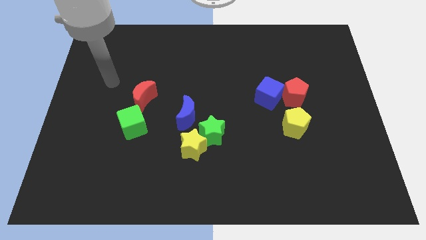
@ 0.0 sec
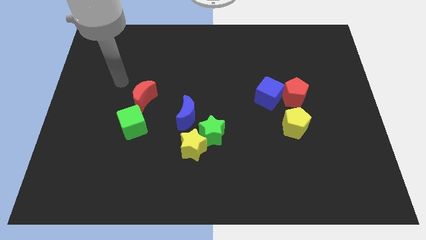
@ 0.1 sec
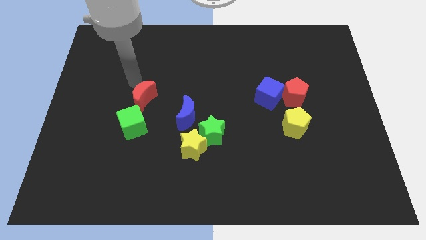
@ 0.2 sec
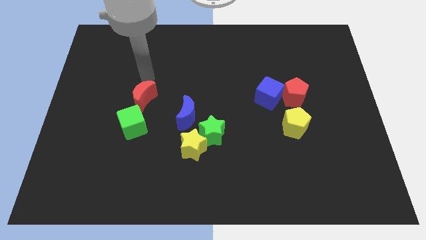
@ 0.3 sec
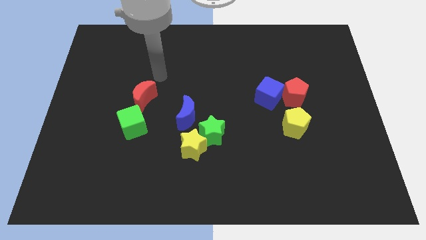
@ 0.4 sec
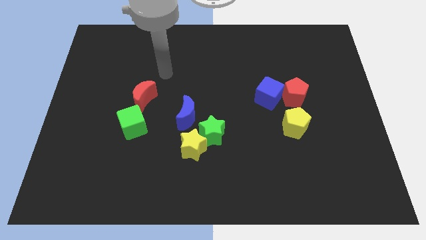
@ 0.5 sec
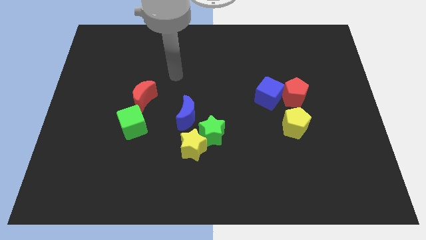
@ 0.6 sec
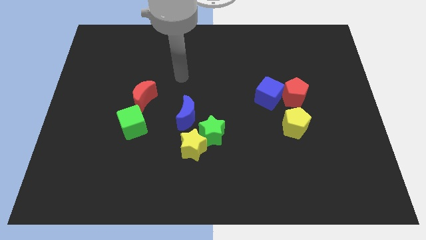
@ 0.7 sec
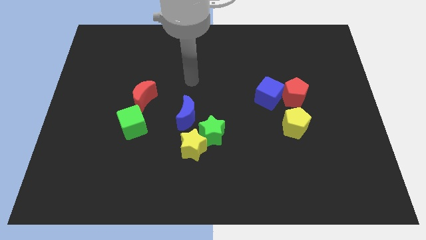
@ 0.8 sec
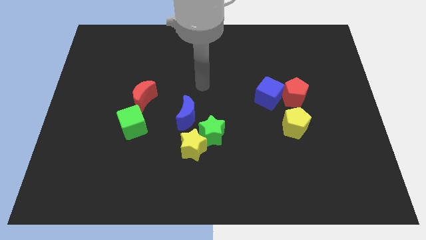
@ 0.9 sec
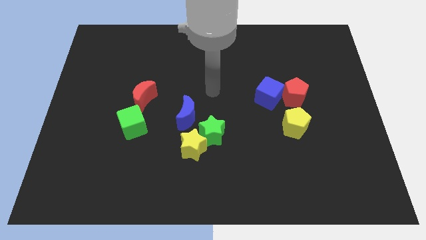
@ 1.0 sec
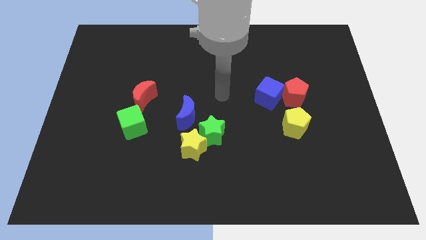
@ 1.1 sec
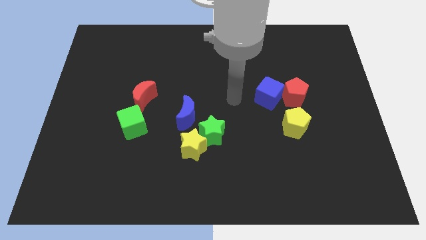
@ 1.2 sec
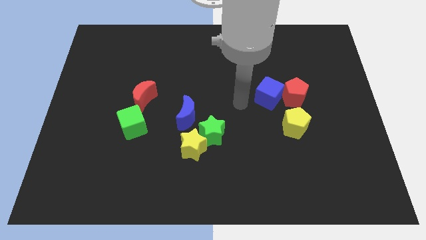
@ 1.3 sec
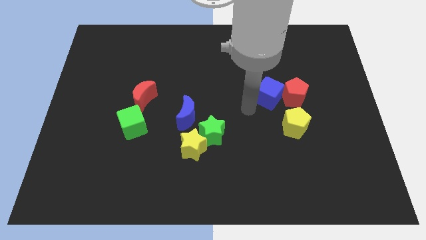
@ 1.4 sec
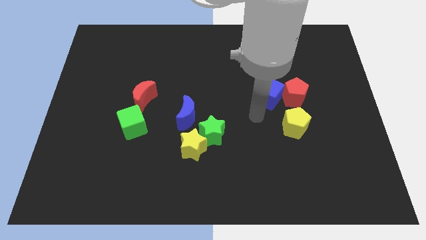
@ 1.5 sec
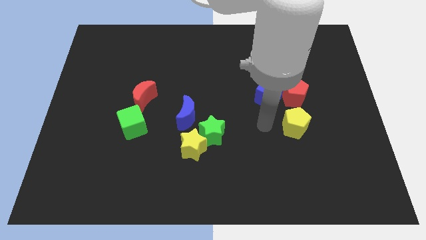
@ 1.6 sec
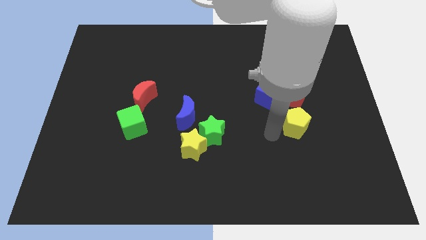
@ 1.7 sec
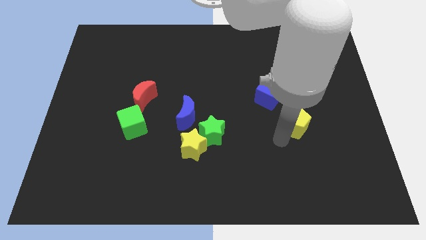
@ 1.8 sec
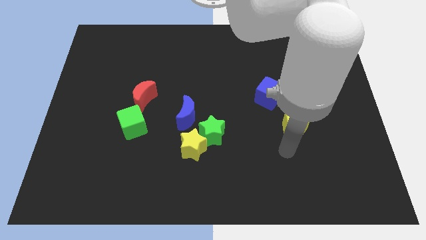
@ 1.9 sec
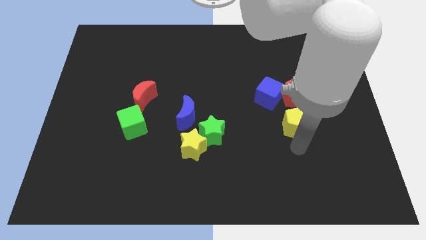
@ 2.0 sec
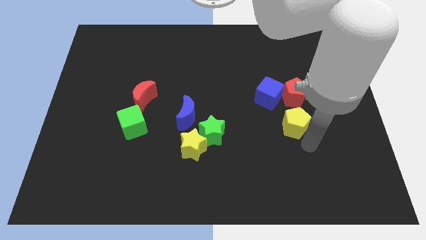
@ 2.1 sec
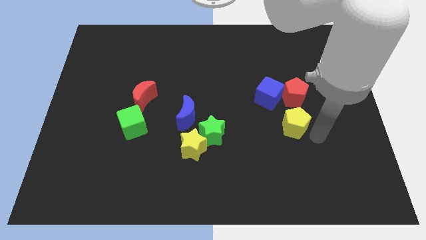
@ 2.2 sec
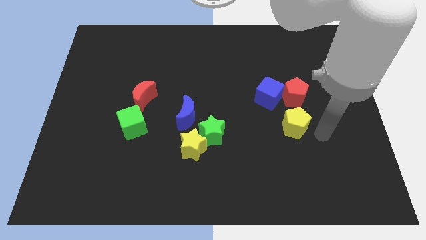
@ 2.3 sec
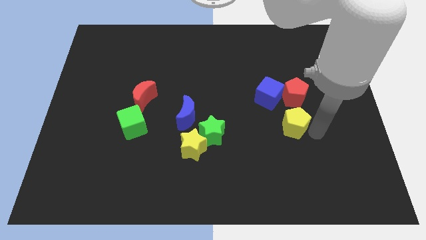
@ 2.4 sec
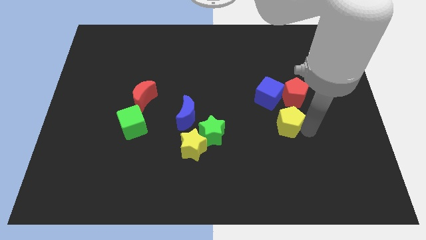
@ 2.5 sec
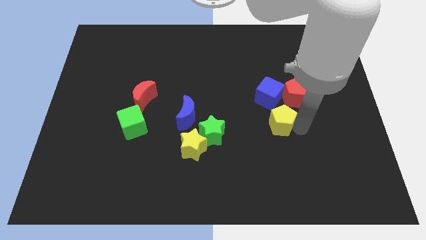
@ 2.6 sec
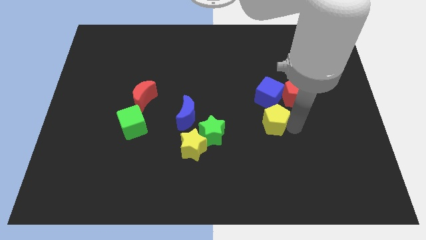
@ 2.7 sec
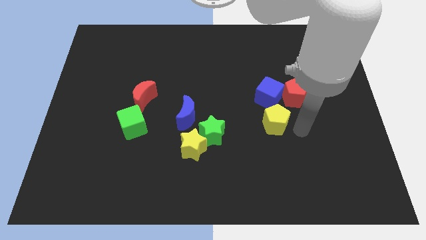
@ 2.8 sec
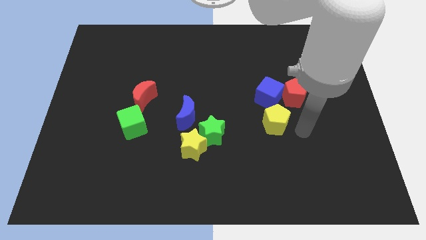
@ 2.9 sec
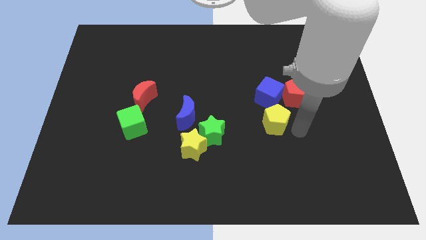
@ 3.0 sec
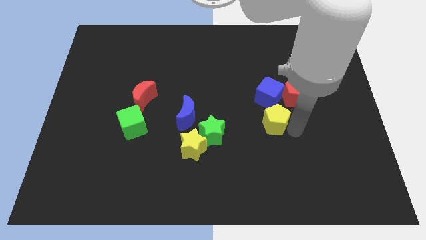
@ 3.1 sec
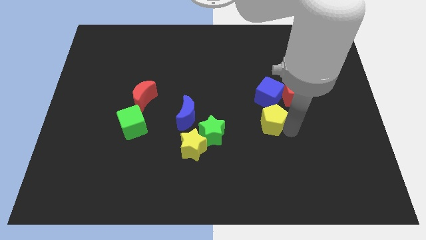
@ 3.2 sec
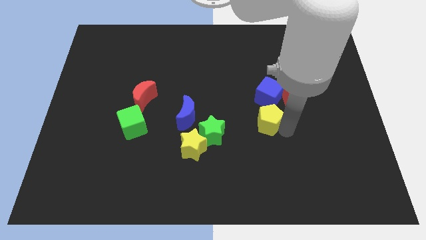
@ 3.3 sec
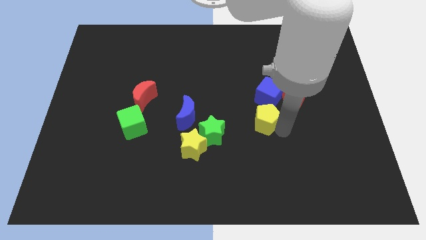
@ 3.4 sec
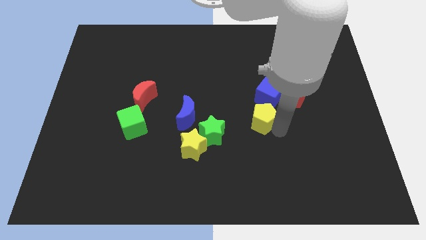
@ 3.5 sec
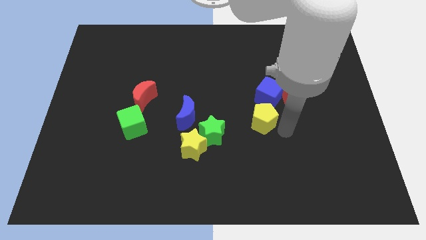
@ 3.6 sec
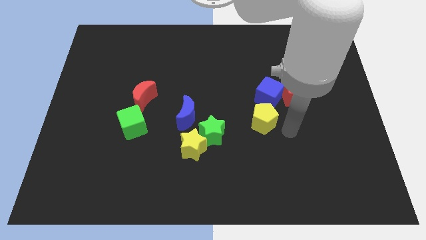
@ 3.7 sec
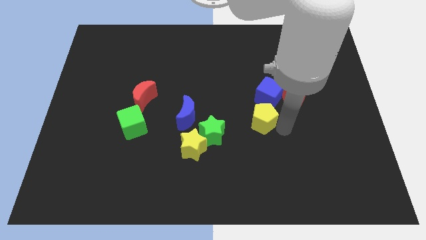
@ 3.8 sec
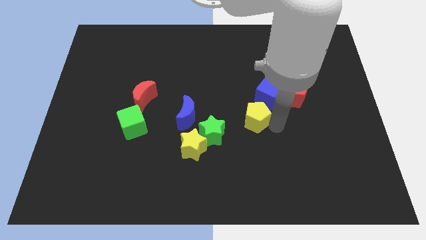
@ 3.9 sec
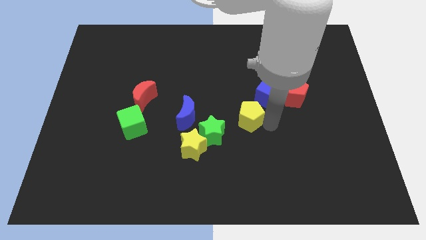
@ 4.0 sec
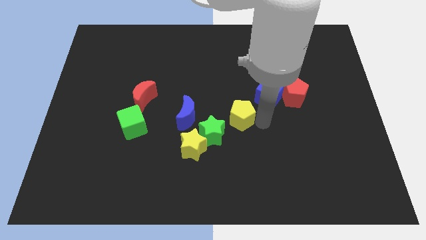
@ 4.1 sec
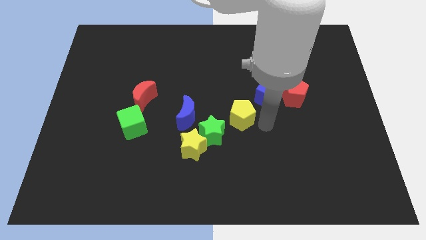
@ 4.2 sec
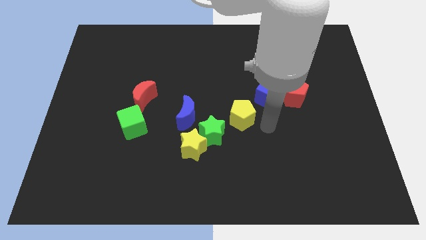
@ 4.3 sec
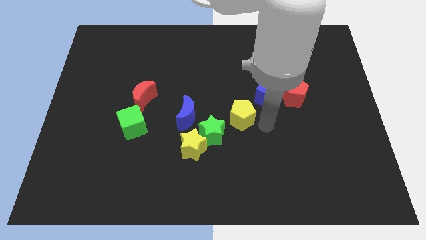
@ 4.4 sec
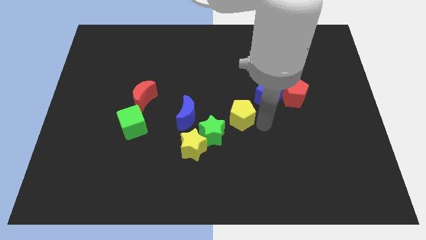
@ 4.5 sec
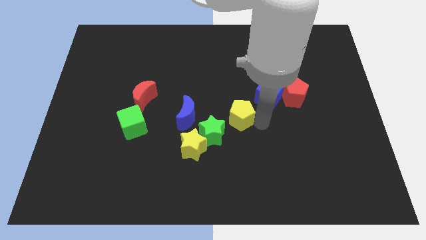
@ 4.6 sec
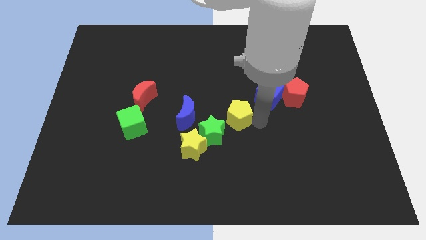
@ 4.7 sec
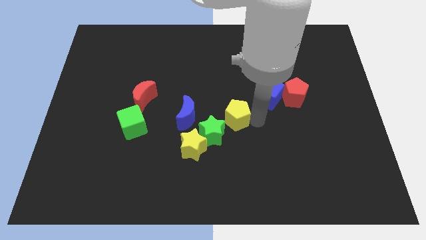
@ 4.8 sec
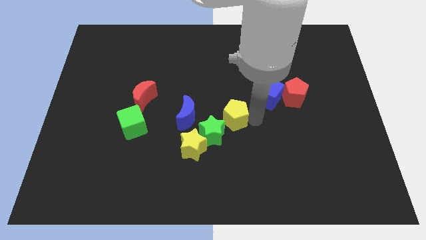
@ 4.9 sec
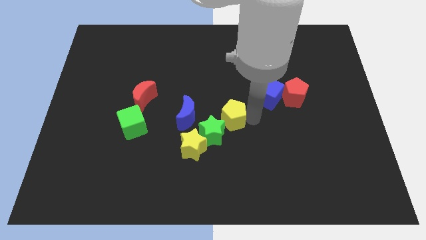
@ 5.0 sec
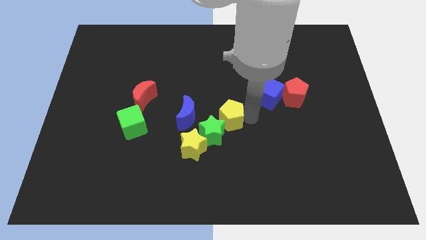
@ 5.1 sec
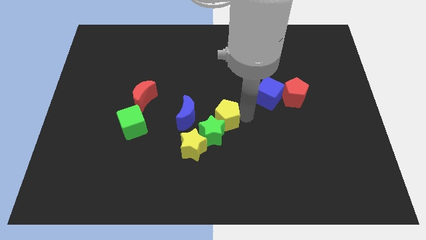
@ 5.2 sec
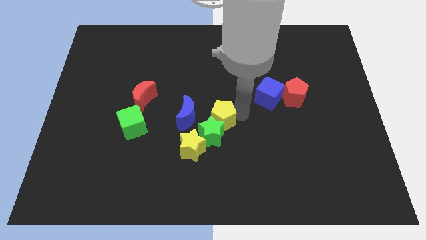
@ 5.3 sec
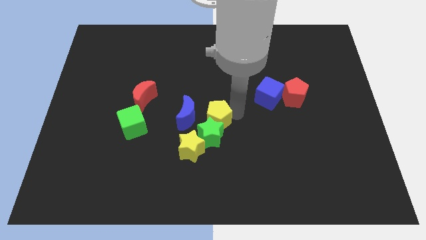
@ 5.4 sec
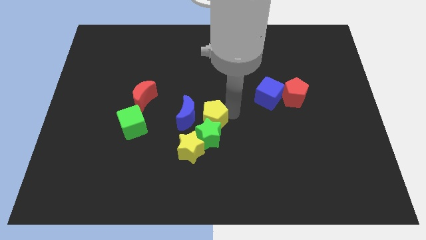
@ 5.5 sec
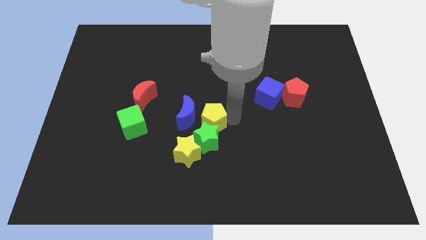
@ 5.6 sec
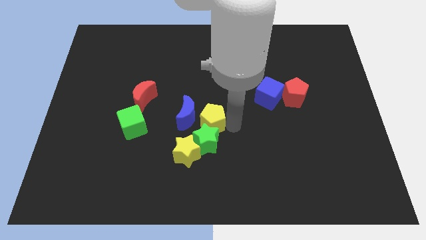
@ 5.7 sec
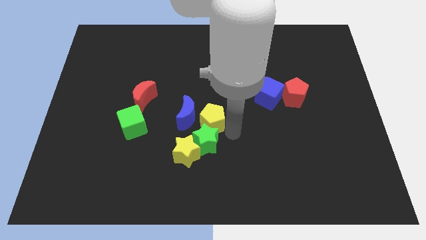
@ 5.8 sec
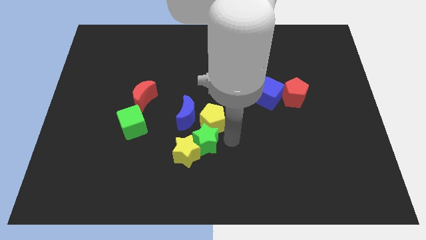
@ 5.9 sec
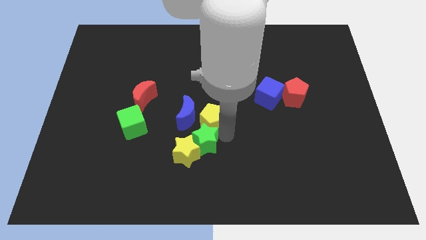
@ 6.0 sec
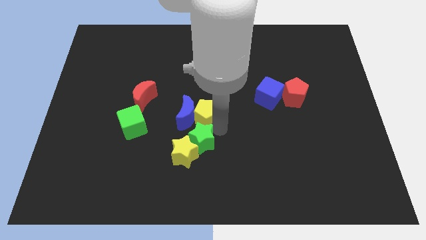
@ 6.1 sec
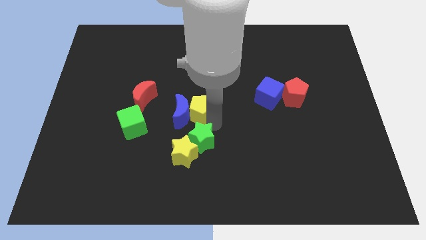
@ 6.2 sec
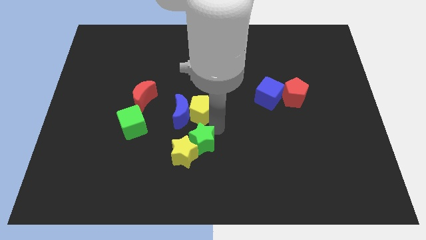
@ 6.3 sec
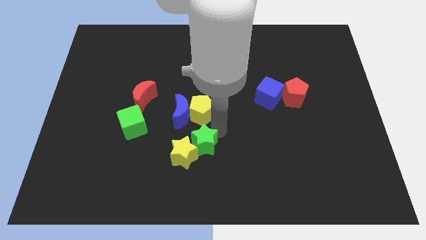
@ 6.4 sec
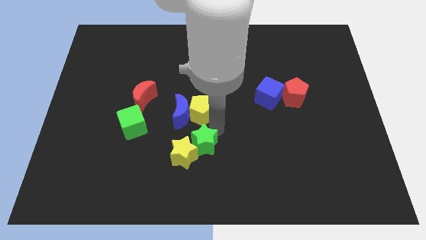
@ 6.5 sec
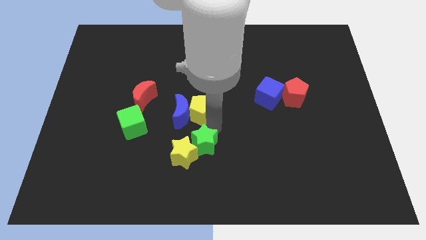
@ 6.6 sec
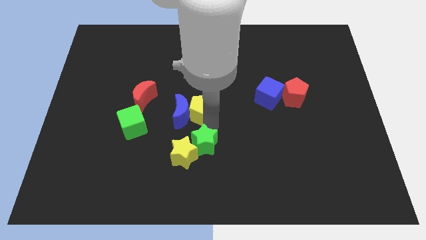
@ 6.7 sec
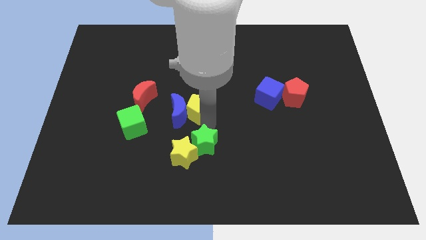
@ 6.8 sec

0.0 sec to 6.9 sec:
slide the yellow pentagon to the right of the red moon

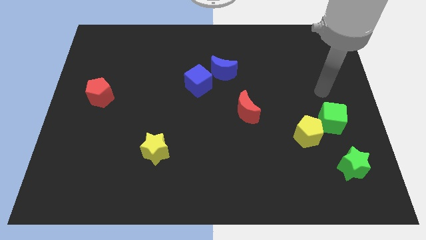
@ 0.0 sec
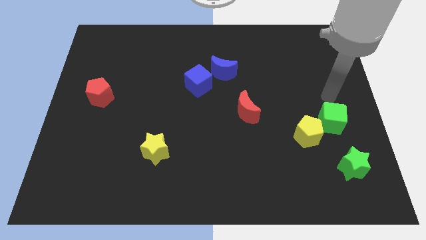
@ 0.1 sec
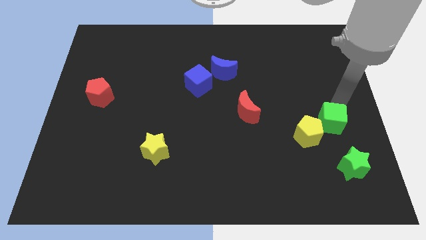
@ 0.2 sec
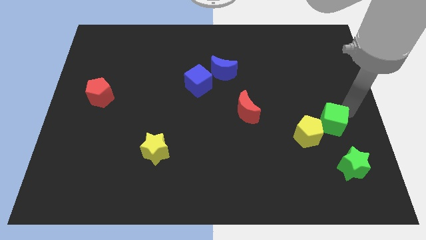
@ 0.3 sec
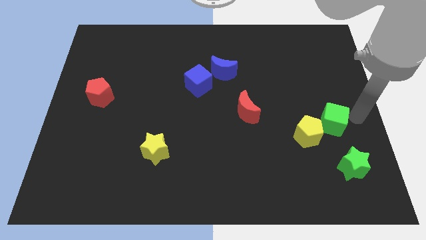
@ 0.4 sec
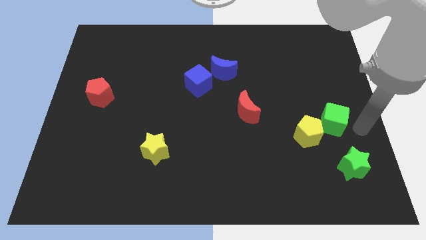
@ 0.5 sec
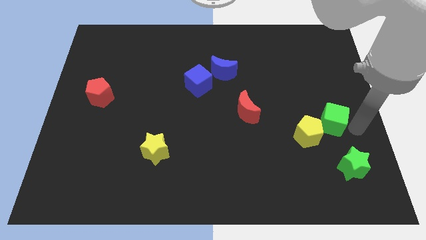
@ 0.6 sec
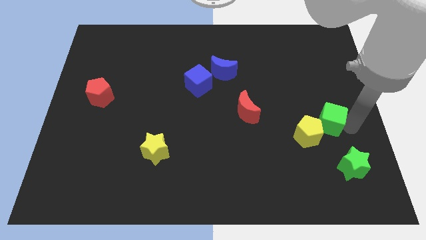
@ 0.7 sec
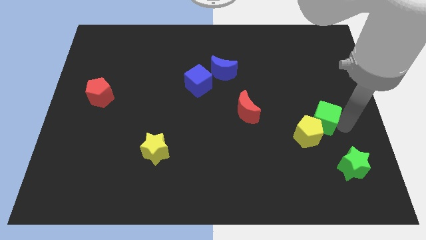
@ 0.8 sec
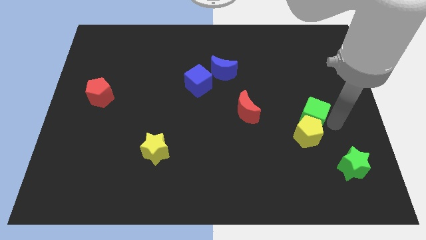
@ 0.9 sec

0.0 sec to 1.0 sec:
push the green cube just right of the red moon
